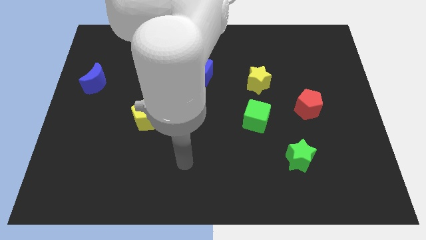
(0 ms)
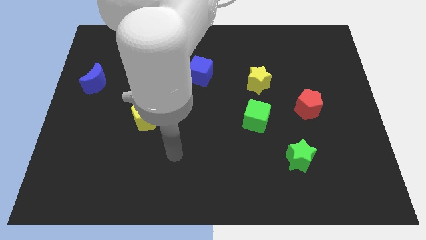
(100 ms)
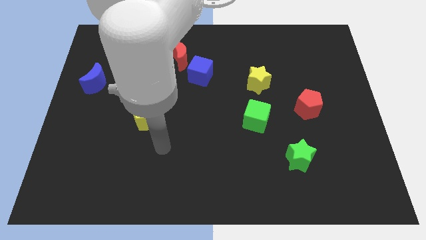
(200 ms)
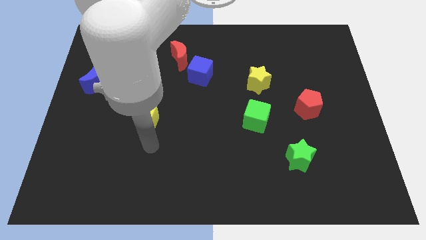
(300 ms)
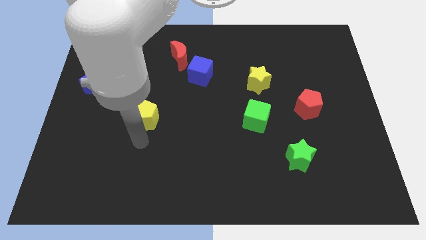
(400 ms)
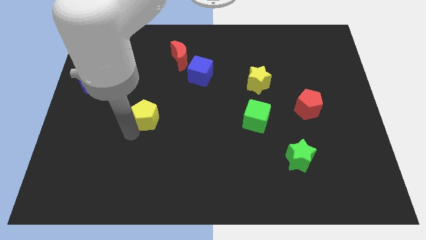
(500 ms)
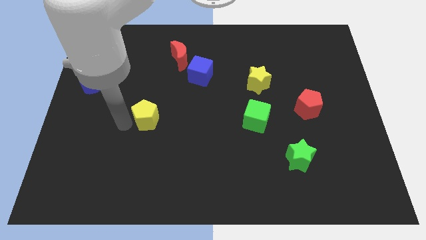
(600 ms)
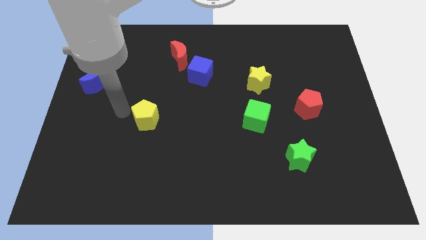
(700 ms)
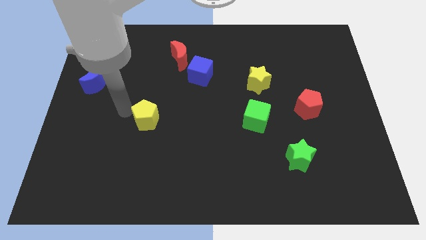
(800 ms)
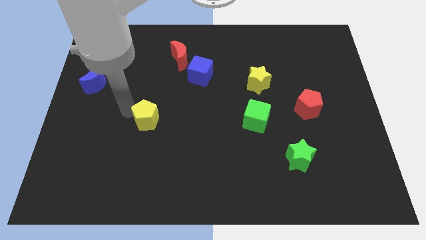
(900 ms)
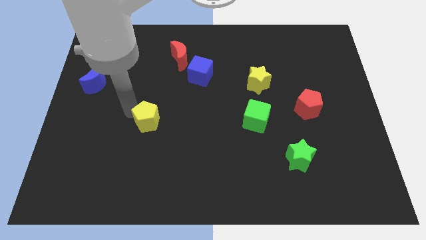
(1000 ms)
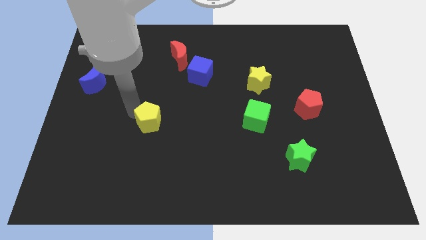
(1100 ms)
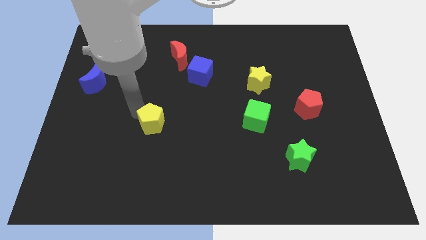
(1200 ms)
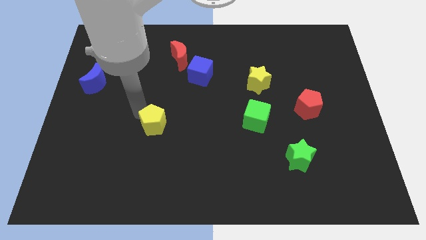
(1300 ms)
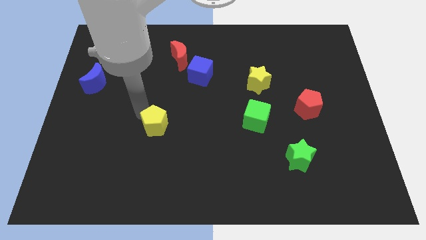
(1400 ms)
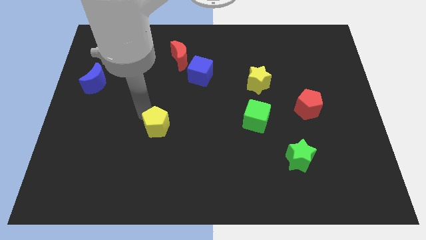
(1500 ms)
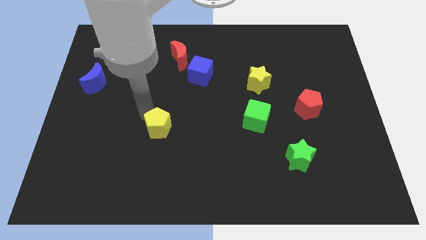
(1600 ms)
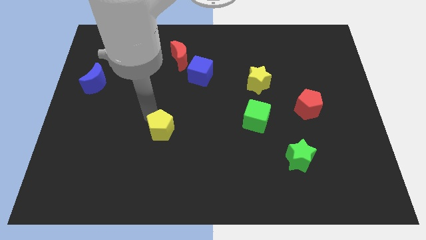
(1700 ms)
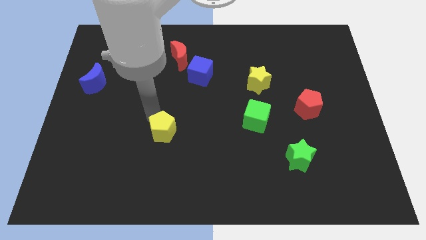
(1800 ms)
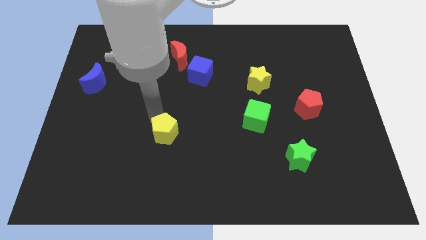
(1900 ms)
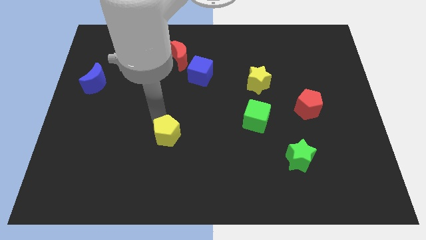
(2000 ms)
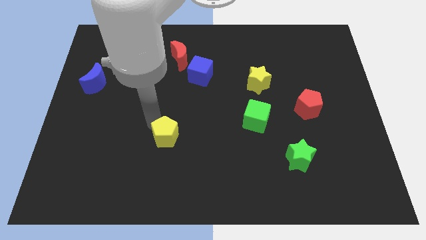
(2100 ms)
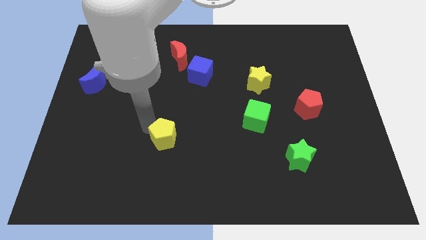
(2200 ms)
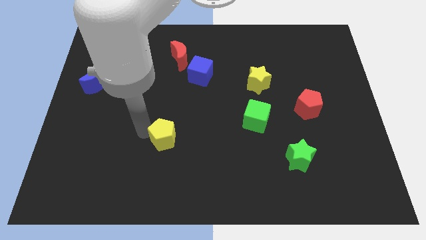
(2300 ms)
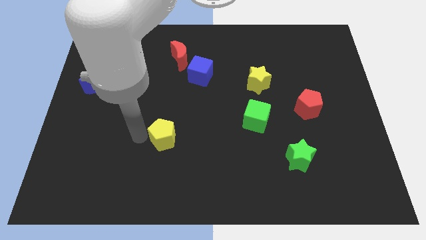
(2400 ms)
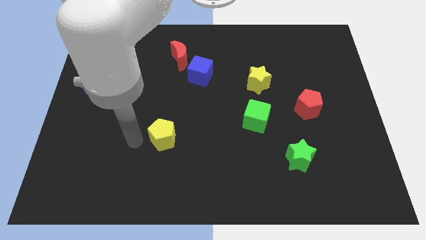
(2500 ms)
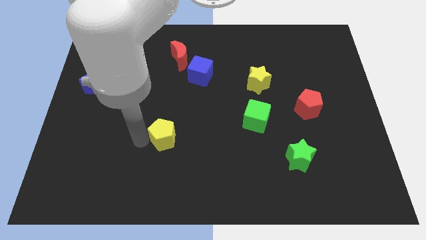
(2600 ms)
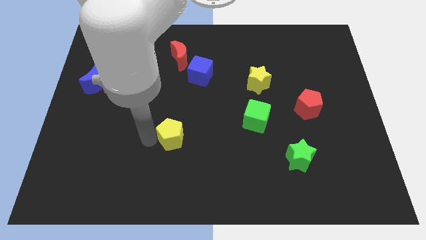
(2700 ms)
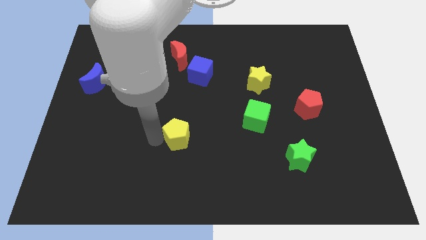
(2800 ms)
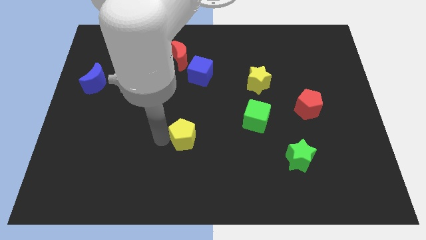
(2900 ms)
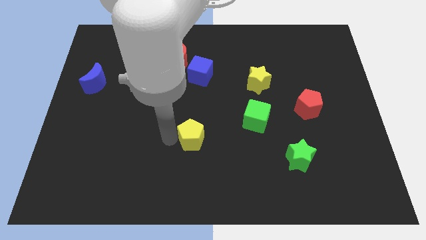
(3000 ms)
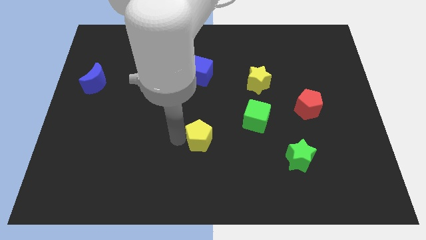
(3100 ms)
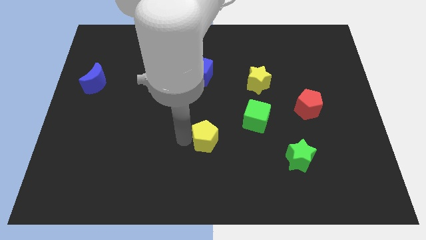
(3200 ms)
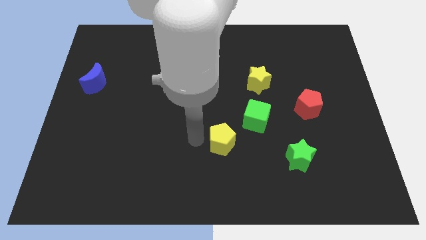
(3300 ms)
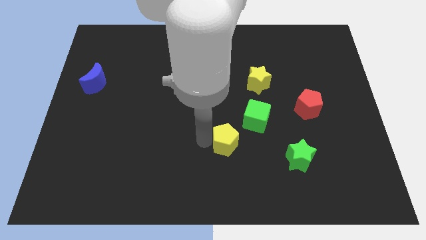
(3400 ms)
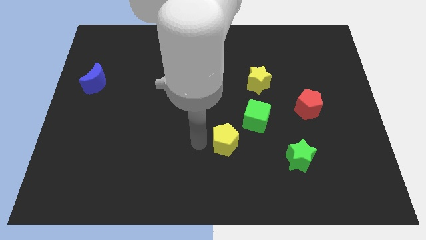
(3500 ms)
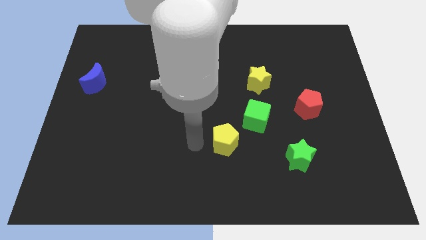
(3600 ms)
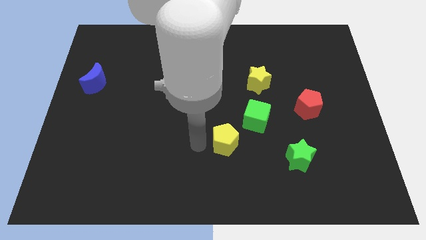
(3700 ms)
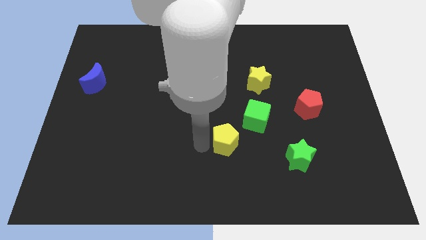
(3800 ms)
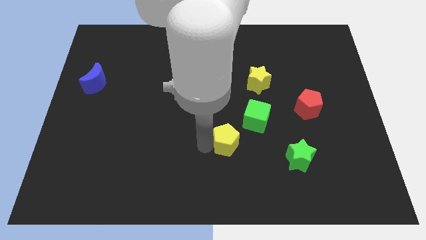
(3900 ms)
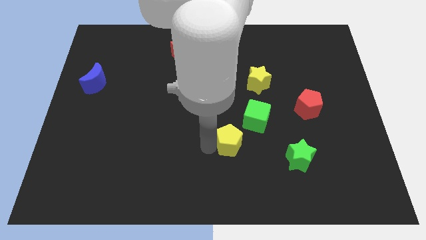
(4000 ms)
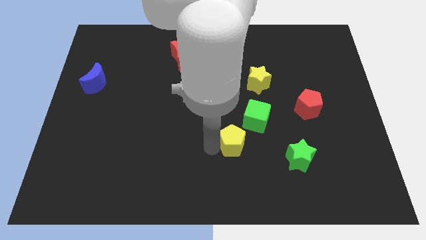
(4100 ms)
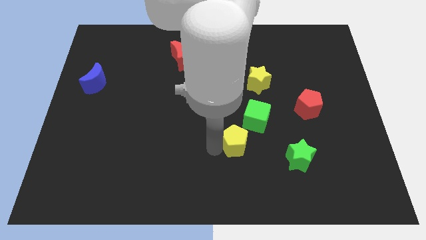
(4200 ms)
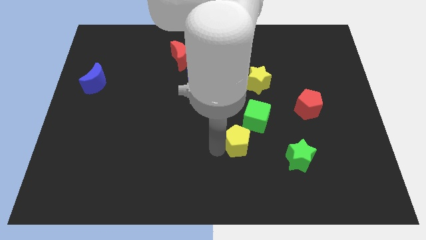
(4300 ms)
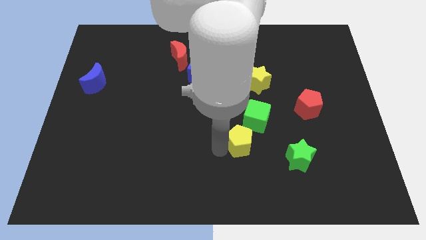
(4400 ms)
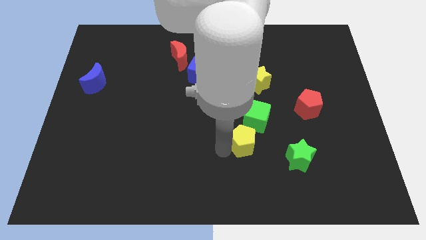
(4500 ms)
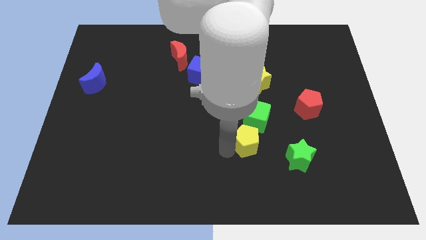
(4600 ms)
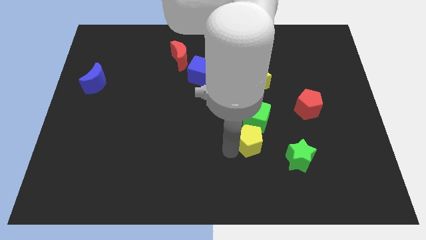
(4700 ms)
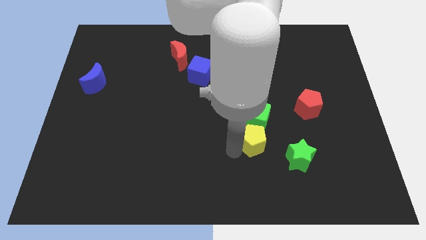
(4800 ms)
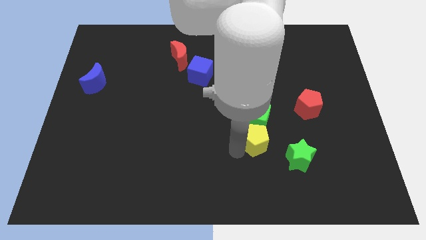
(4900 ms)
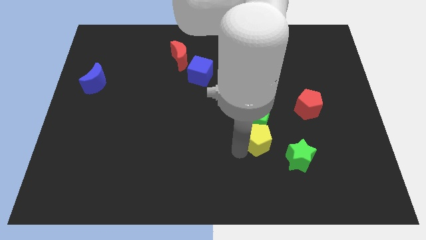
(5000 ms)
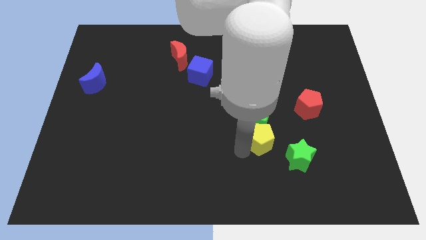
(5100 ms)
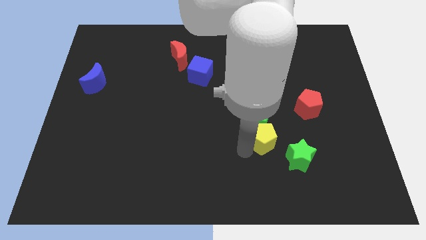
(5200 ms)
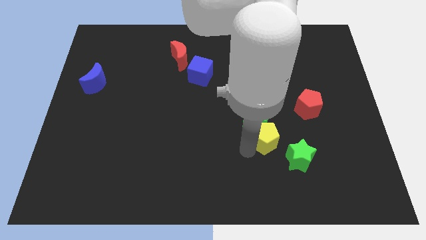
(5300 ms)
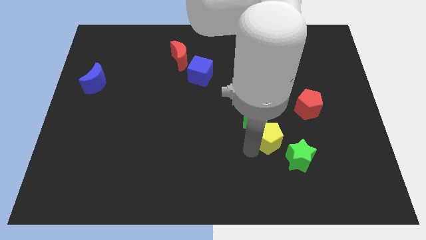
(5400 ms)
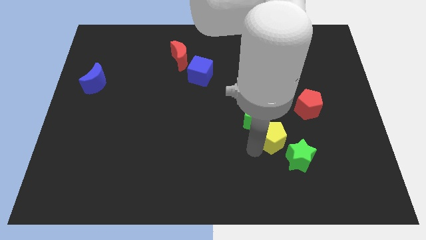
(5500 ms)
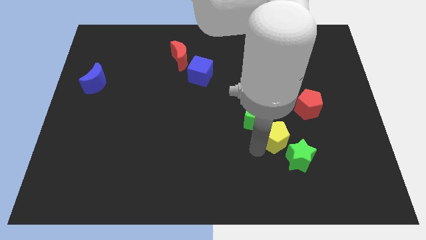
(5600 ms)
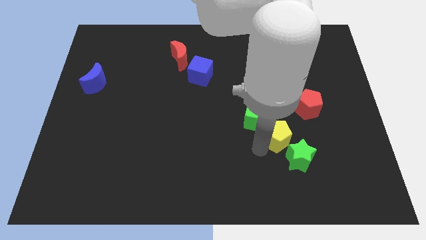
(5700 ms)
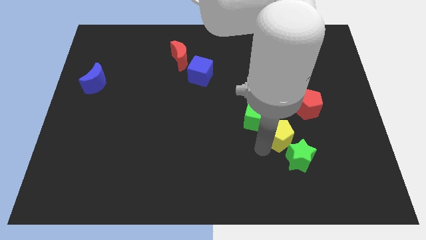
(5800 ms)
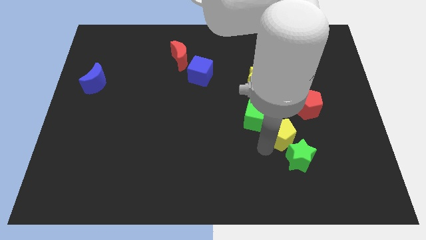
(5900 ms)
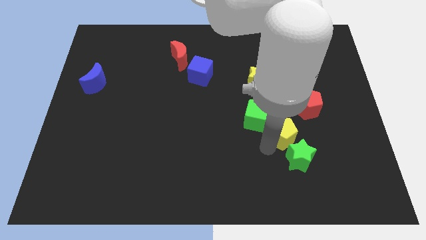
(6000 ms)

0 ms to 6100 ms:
move the yellow pentagon right of the green cube

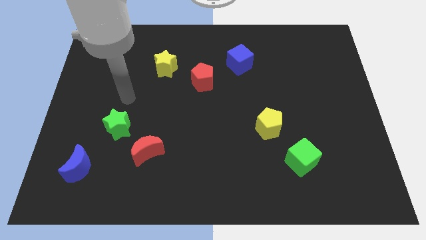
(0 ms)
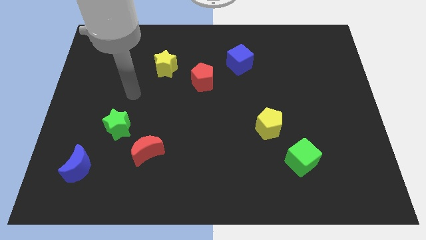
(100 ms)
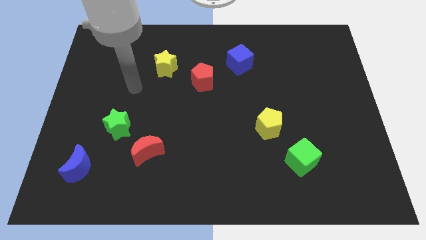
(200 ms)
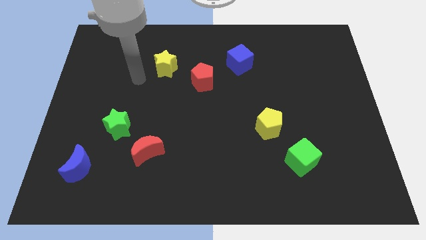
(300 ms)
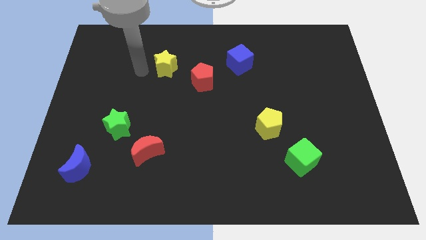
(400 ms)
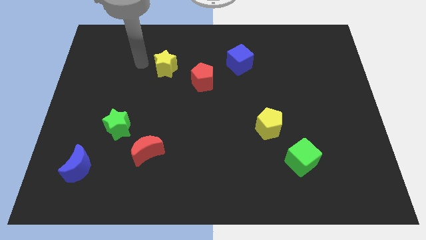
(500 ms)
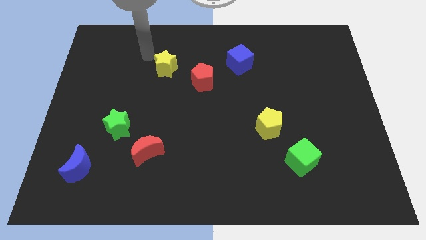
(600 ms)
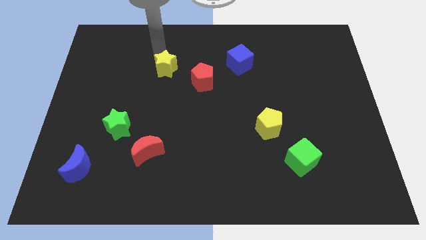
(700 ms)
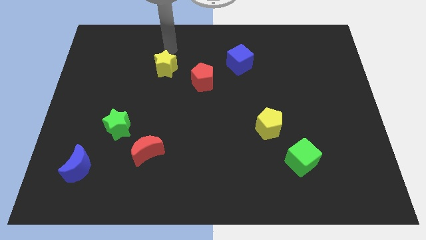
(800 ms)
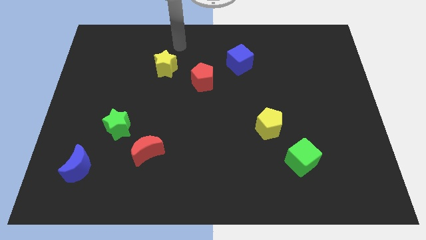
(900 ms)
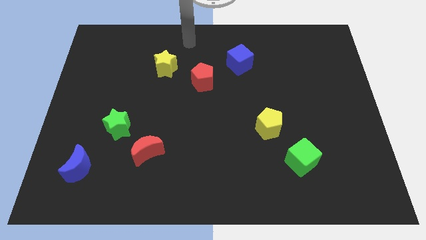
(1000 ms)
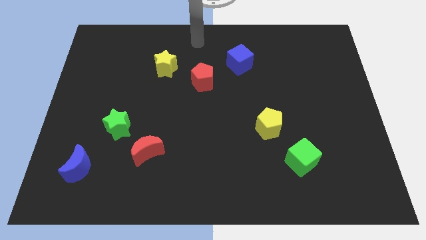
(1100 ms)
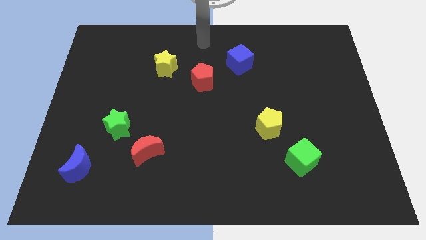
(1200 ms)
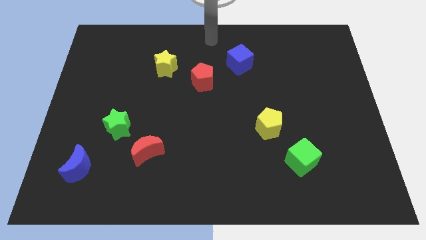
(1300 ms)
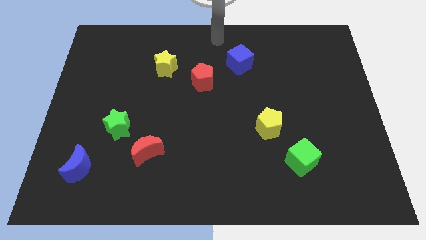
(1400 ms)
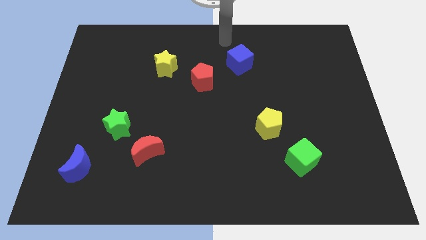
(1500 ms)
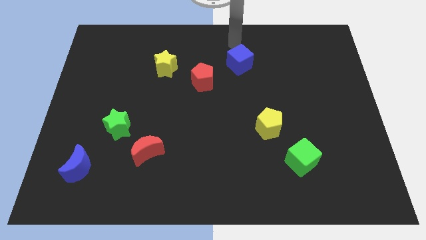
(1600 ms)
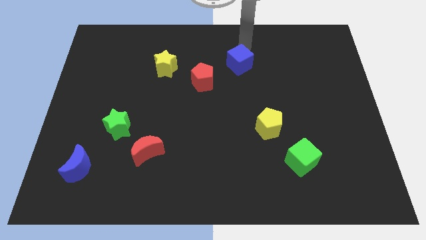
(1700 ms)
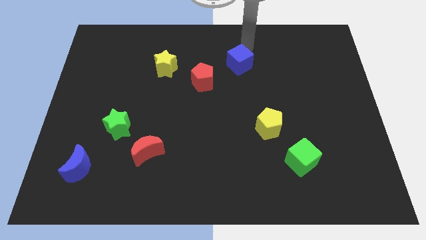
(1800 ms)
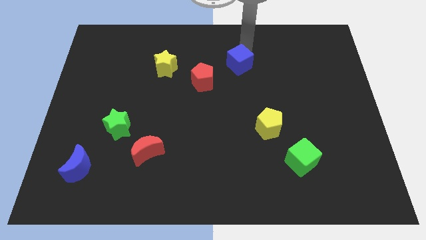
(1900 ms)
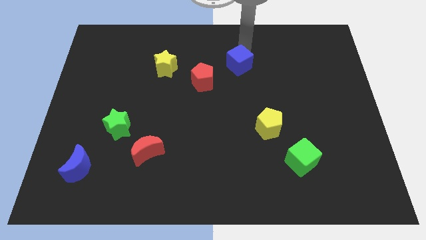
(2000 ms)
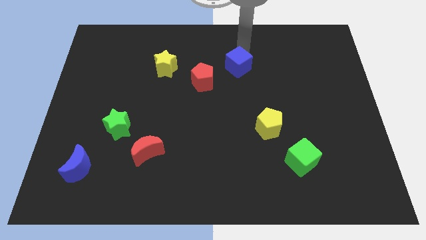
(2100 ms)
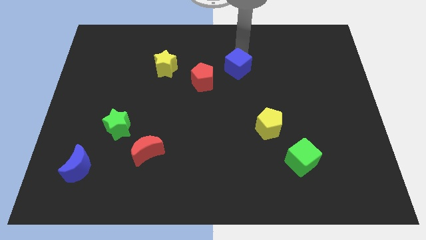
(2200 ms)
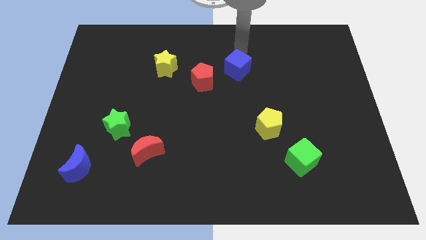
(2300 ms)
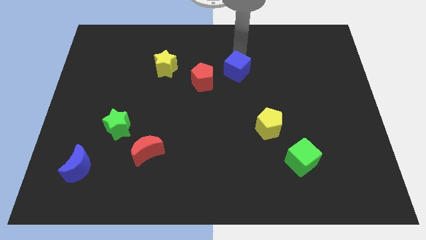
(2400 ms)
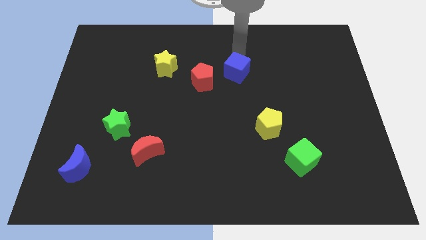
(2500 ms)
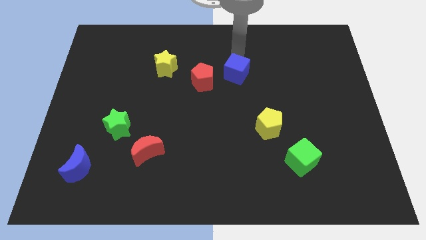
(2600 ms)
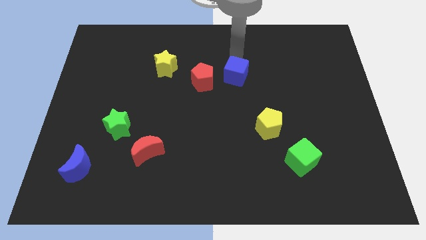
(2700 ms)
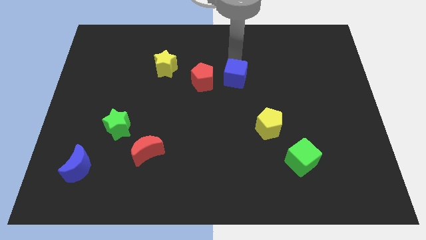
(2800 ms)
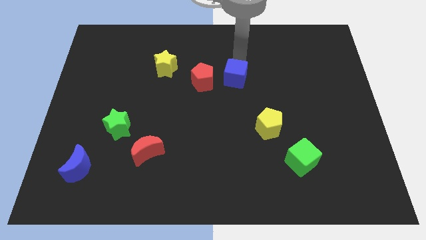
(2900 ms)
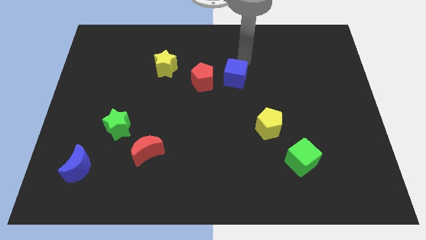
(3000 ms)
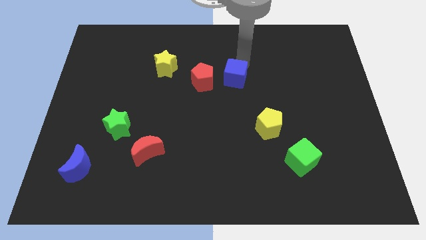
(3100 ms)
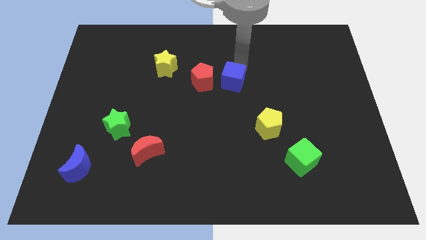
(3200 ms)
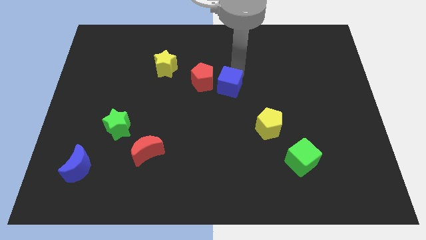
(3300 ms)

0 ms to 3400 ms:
slide the blue cube to the bottom right of the red pentagon
